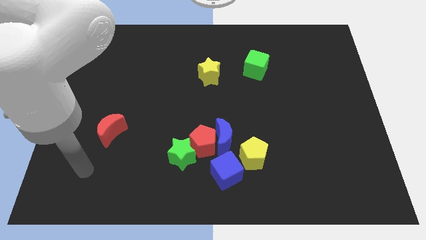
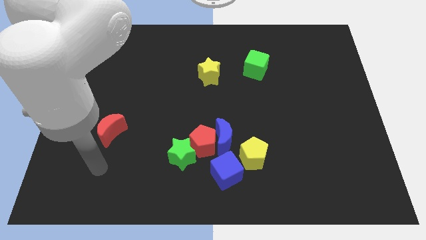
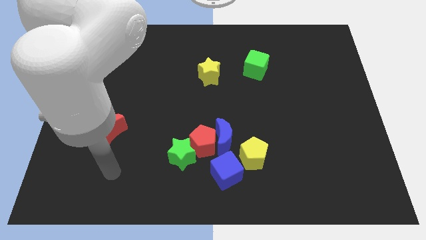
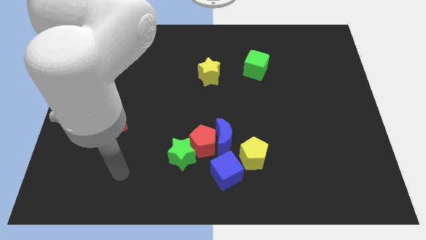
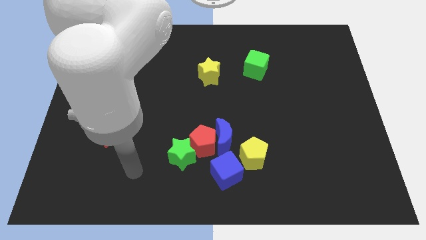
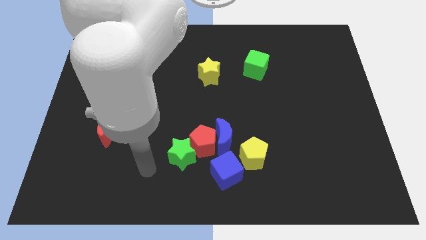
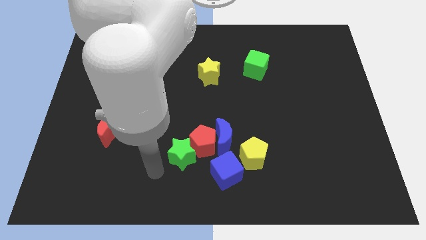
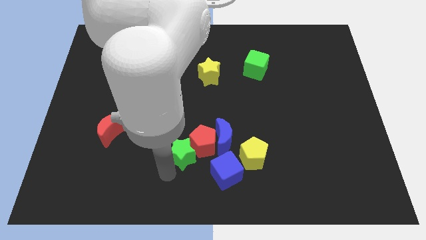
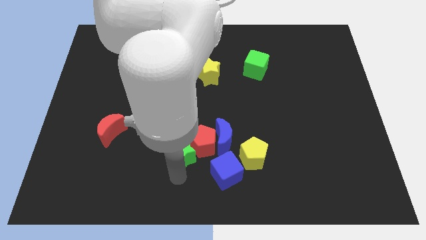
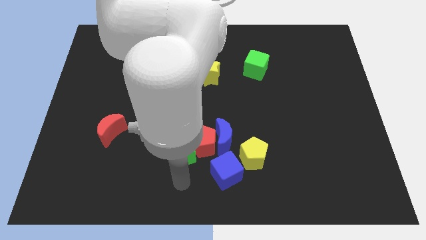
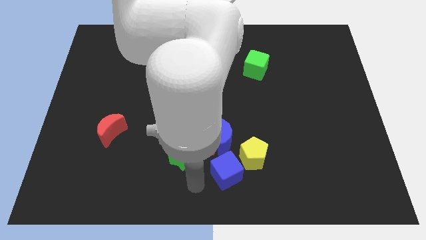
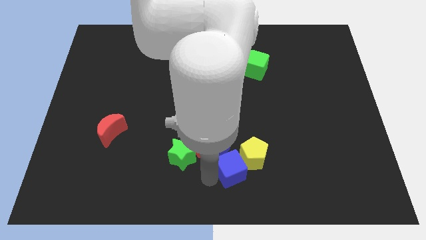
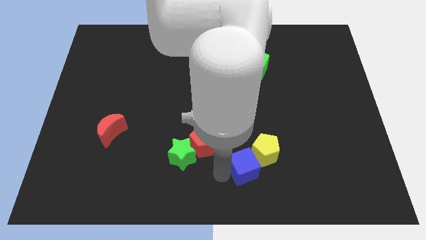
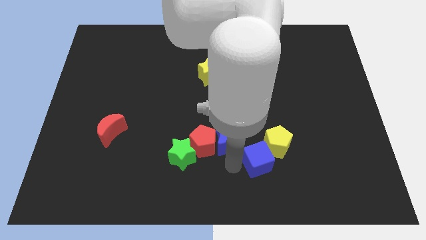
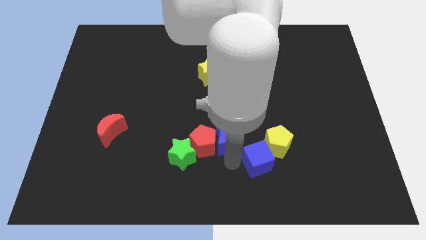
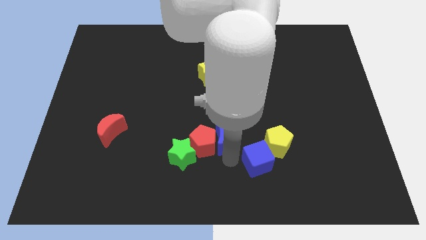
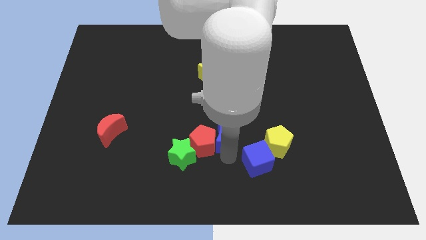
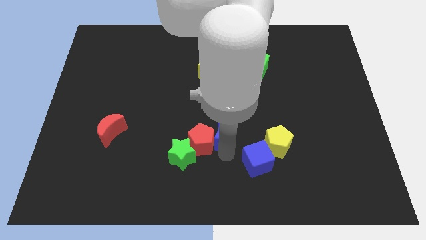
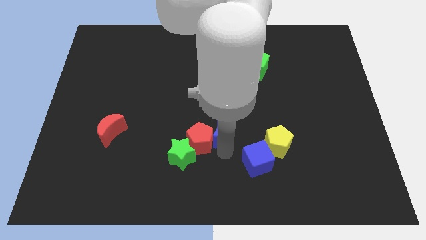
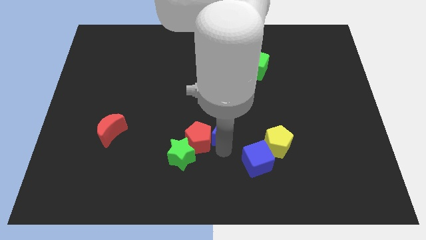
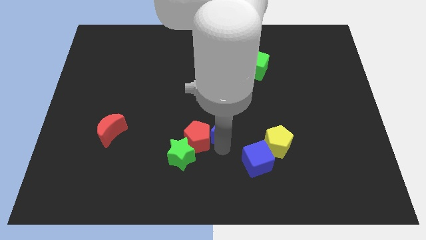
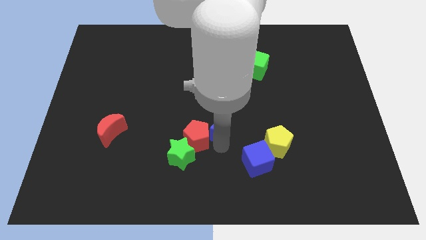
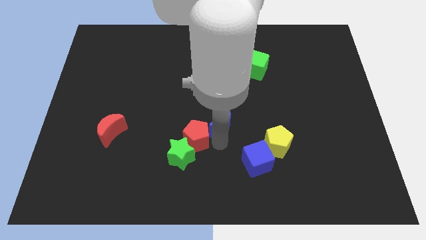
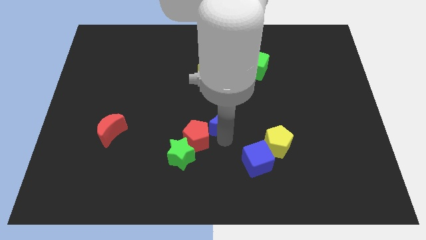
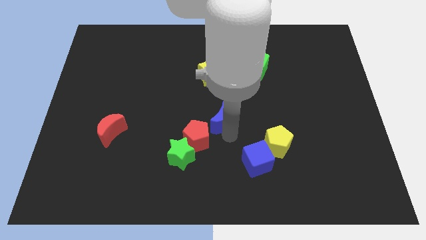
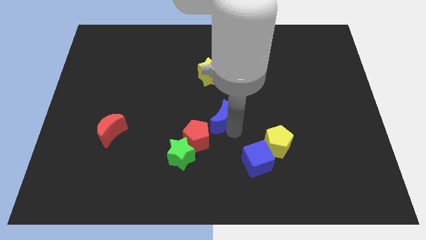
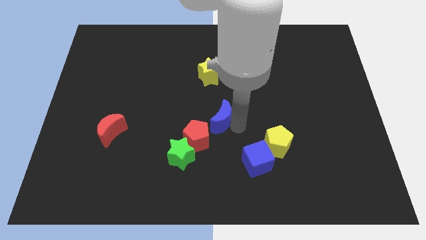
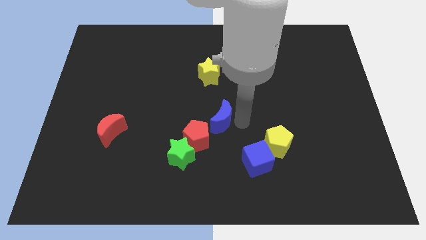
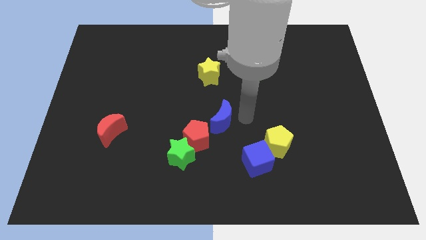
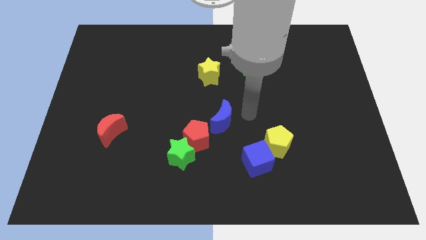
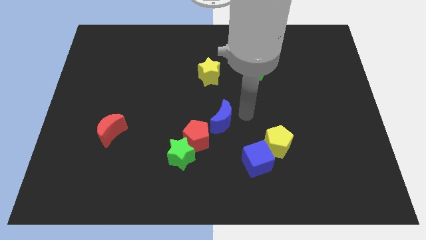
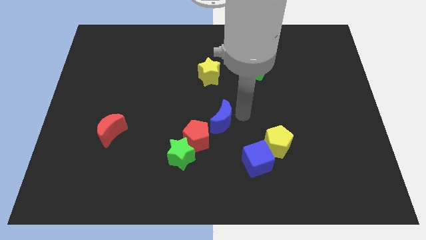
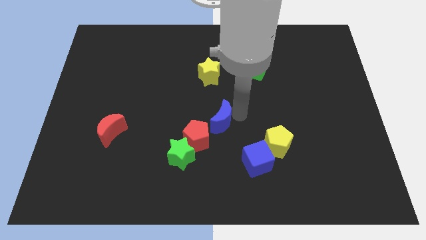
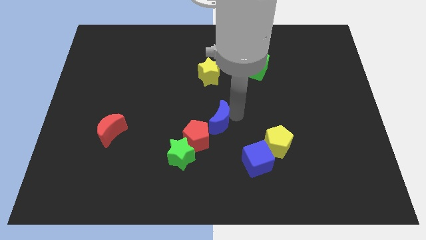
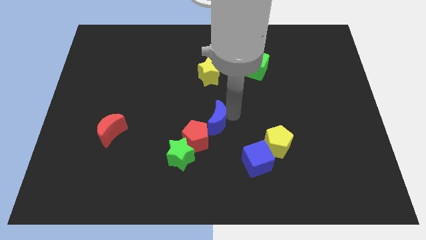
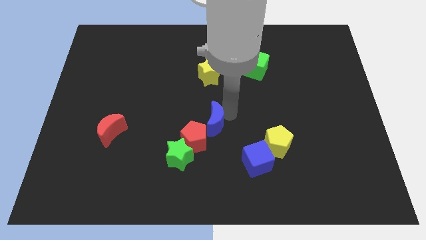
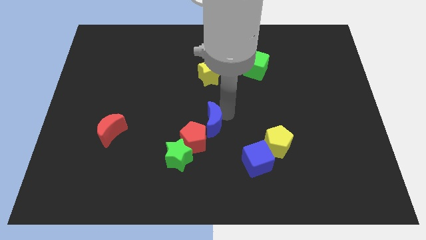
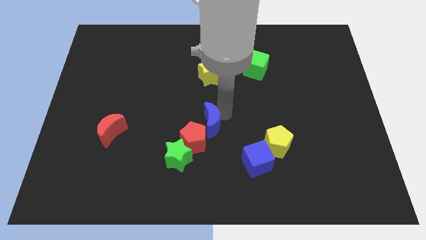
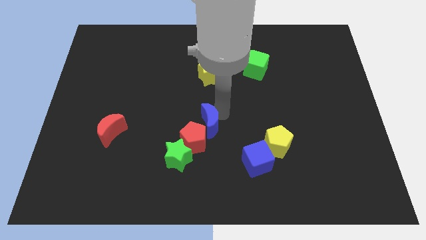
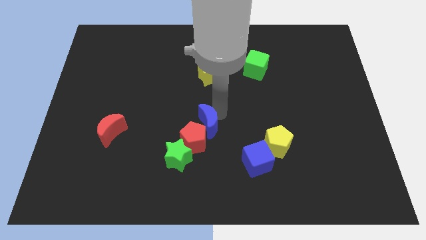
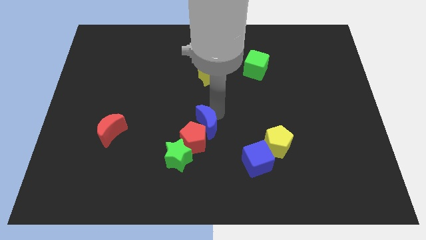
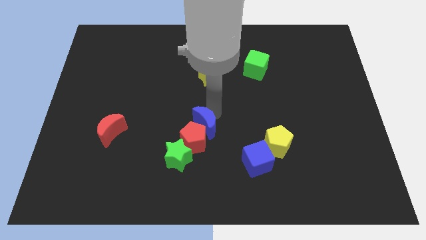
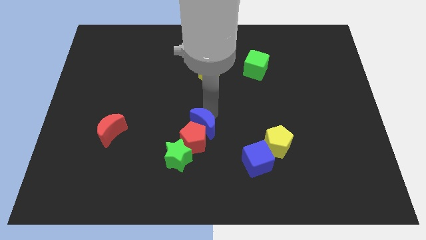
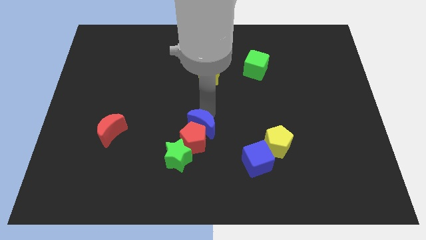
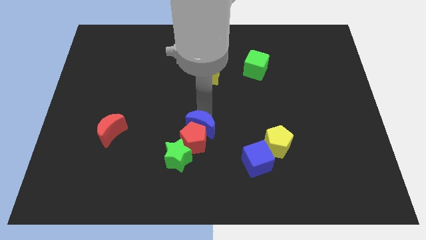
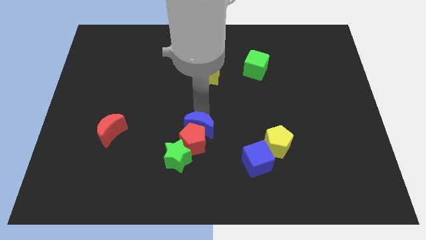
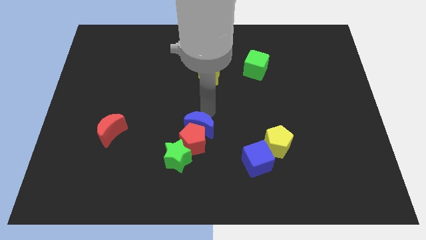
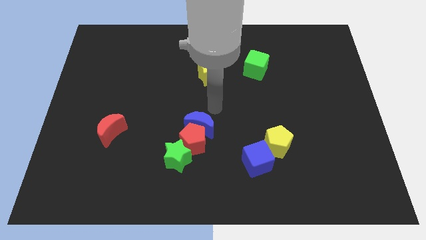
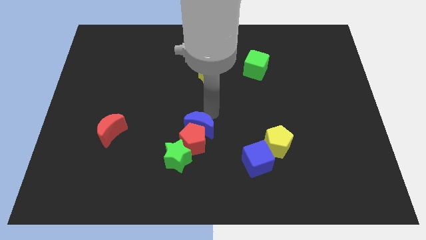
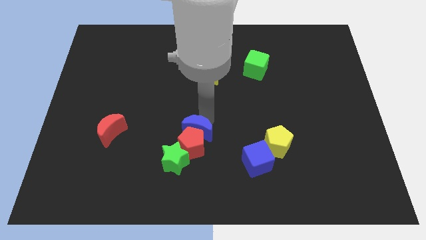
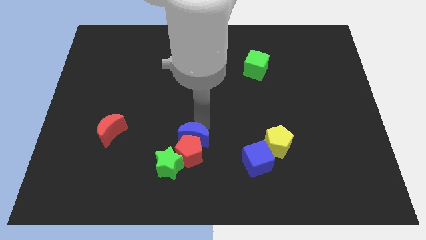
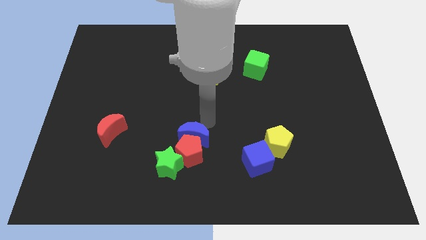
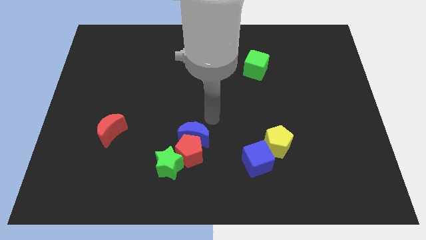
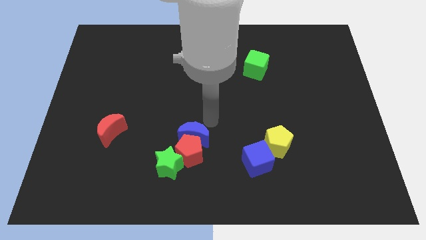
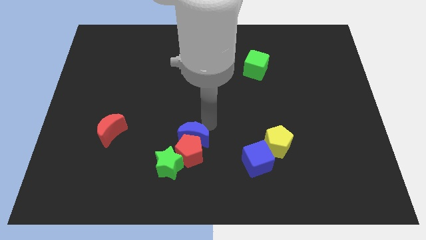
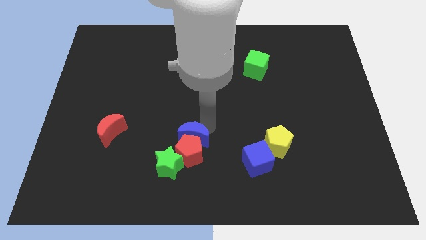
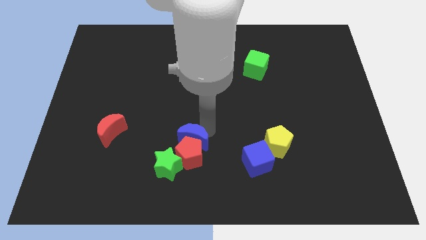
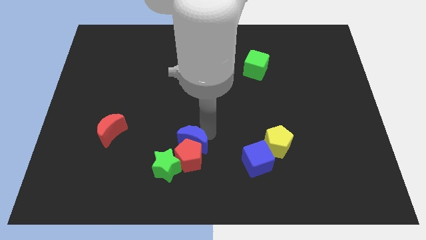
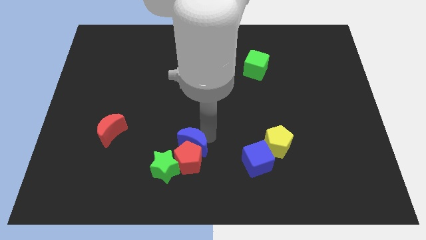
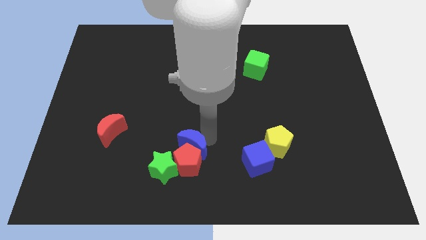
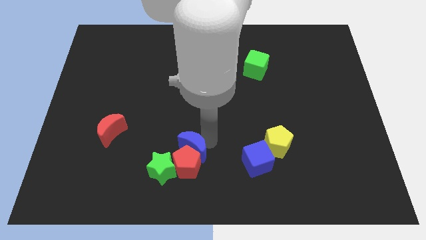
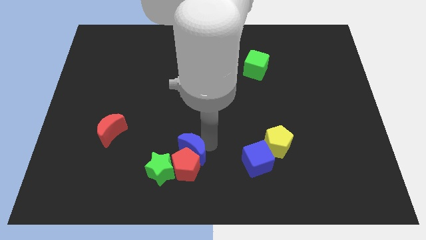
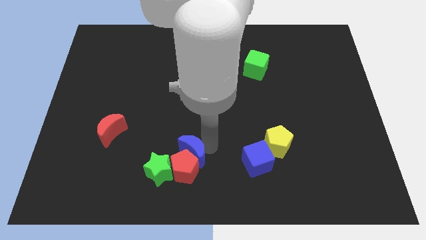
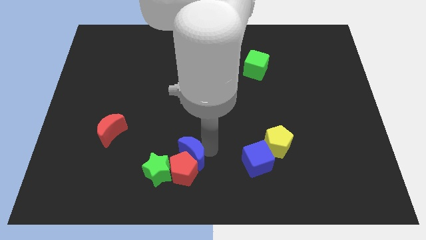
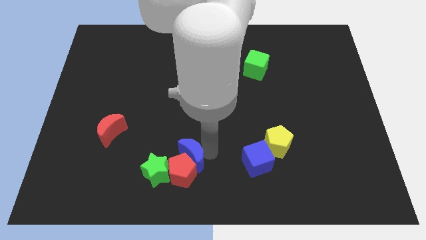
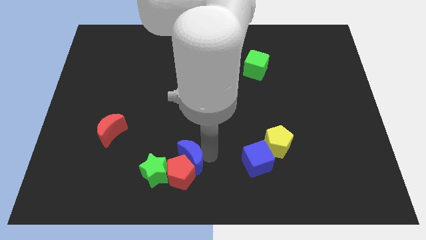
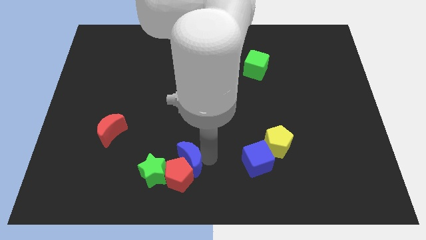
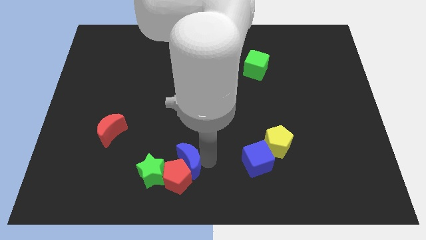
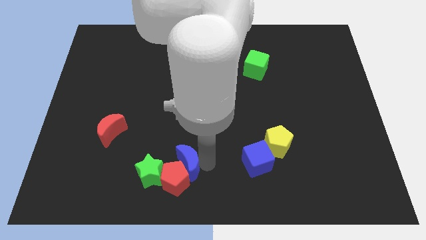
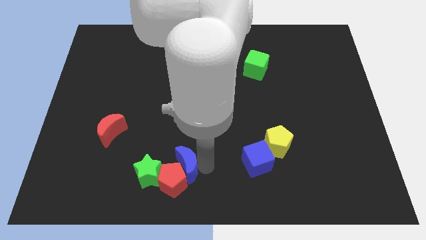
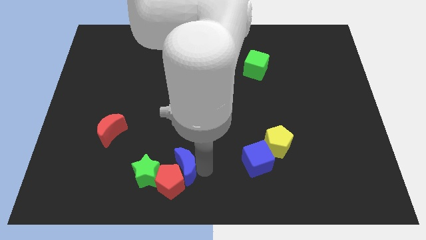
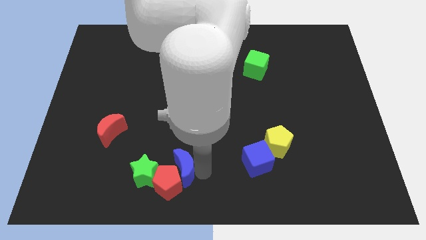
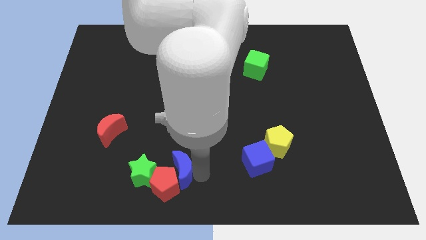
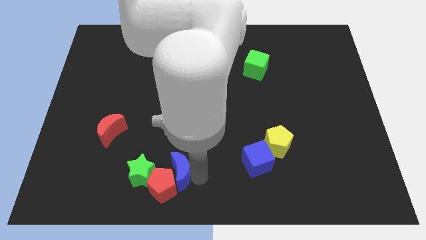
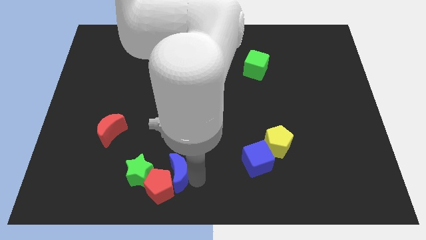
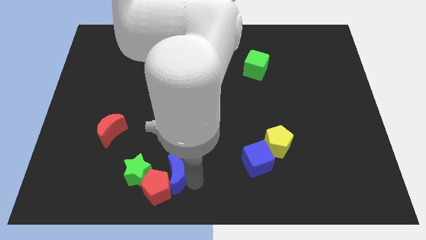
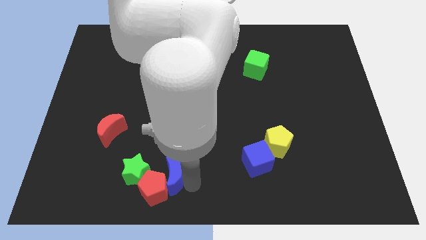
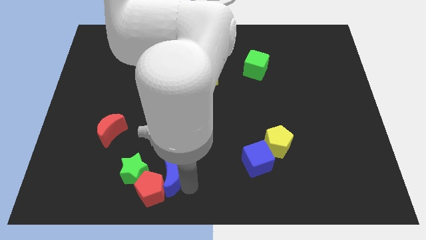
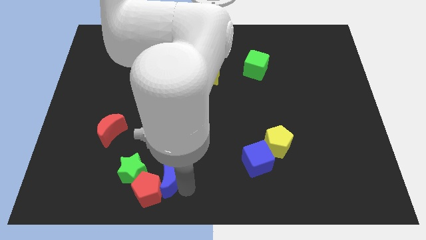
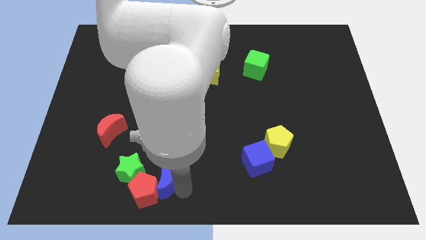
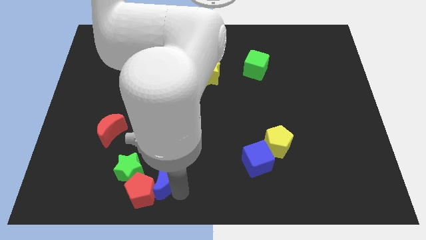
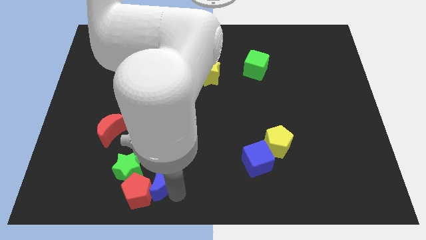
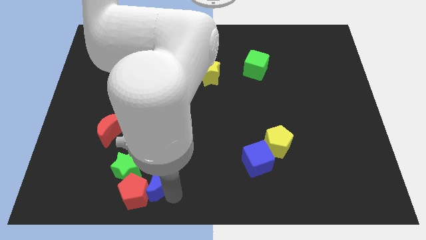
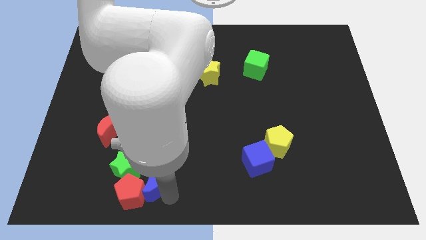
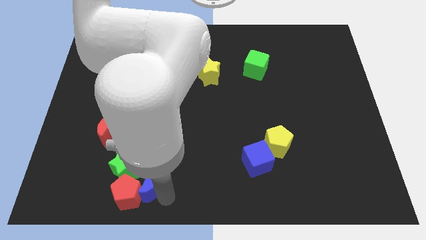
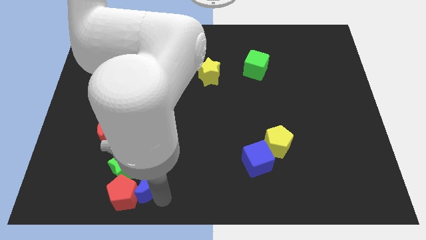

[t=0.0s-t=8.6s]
move the blue moon close to the green star
